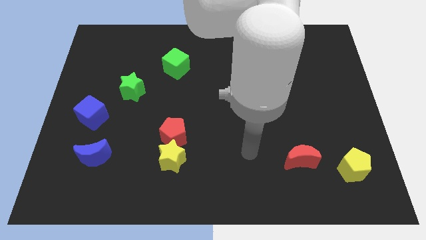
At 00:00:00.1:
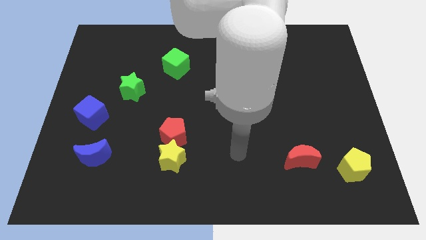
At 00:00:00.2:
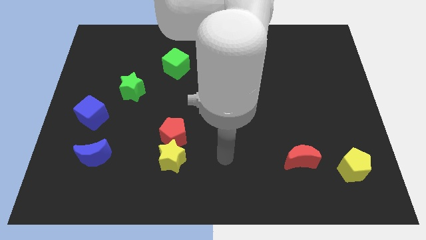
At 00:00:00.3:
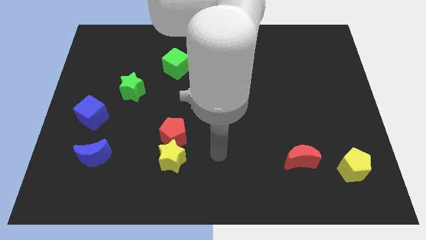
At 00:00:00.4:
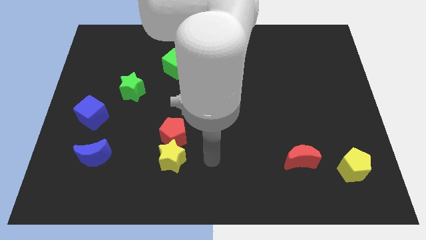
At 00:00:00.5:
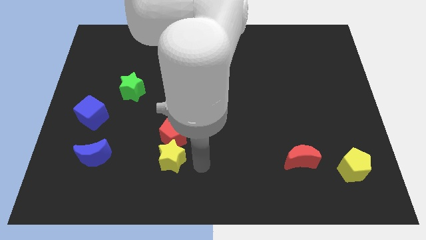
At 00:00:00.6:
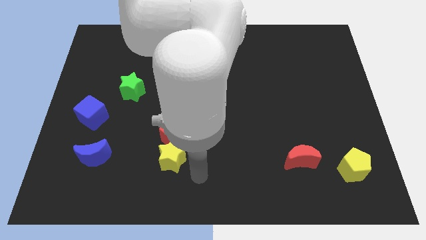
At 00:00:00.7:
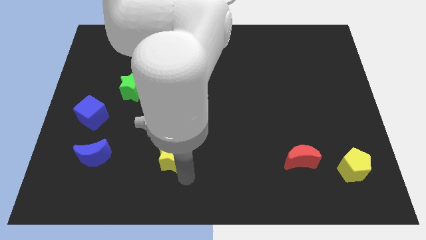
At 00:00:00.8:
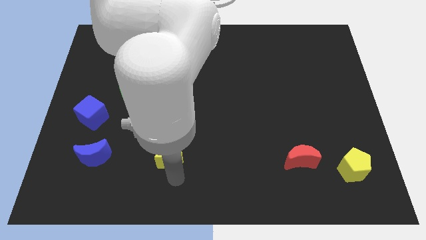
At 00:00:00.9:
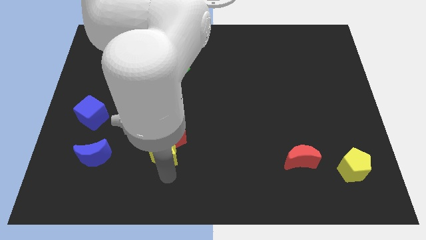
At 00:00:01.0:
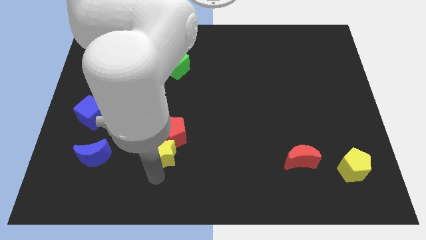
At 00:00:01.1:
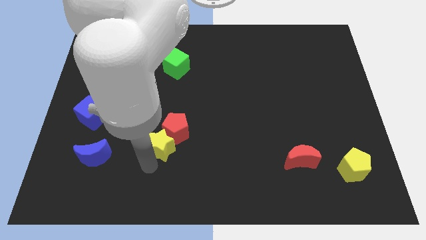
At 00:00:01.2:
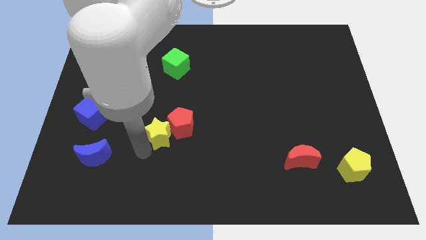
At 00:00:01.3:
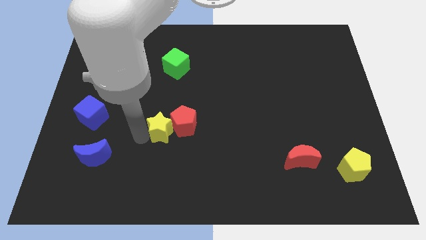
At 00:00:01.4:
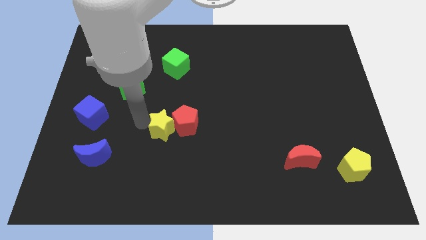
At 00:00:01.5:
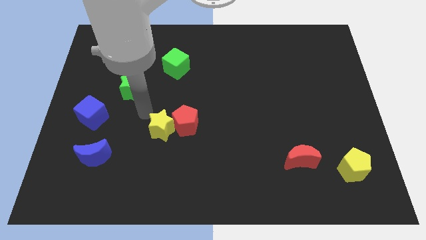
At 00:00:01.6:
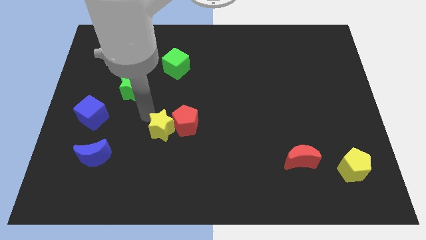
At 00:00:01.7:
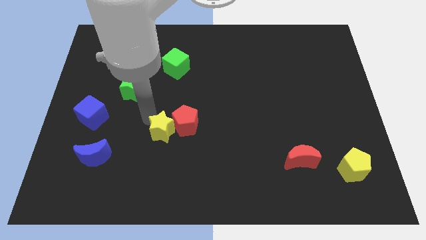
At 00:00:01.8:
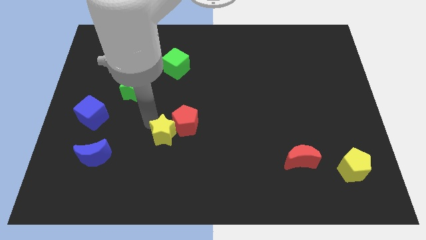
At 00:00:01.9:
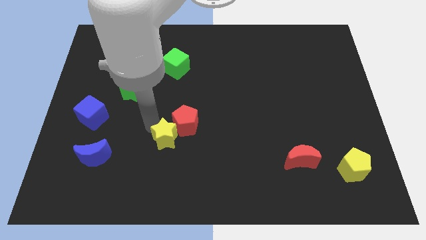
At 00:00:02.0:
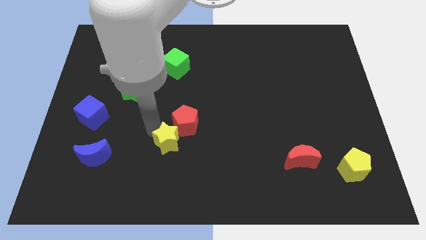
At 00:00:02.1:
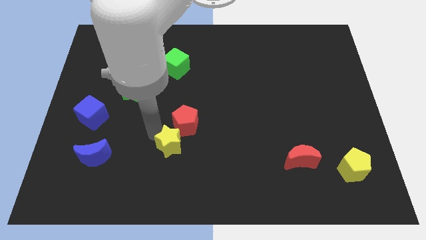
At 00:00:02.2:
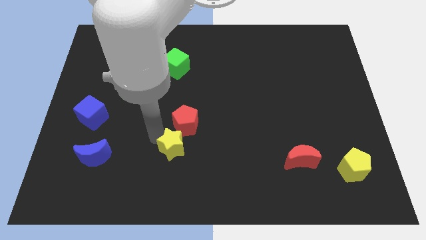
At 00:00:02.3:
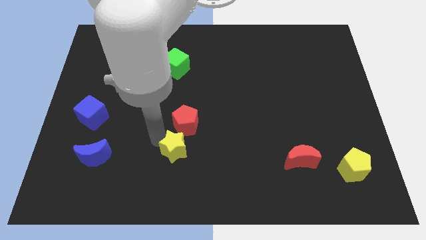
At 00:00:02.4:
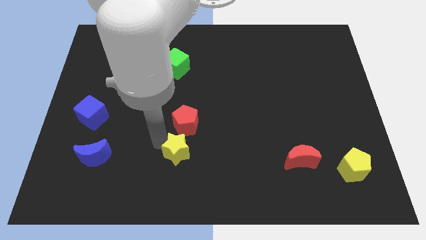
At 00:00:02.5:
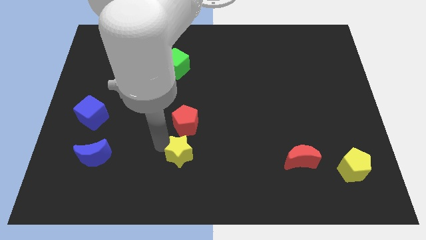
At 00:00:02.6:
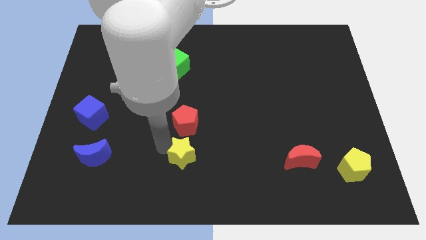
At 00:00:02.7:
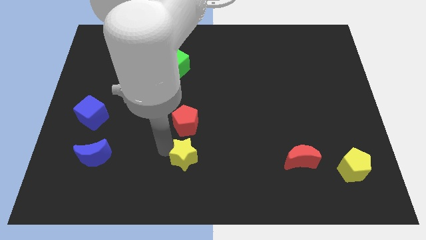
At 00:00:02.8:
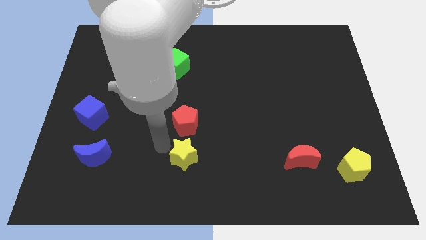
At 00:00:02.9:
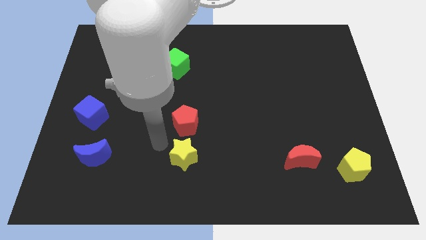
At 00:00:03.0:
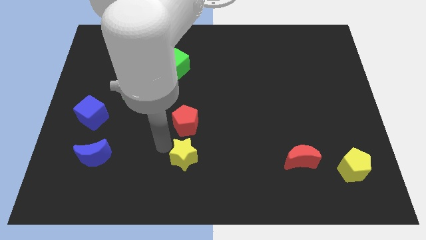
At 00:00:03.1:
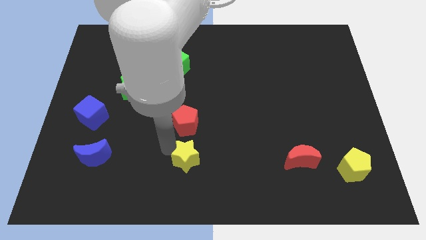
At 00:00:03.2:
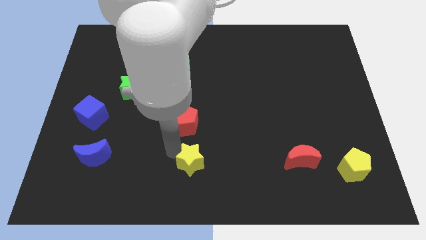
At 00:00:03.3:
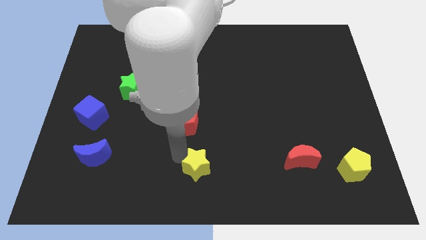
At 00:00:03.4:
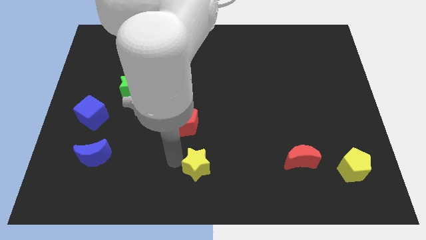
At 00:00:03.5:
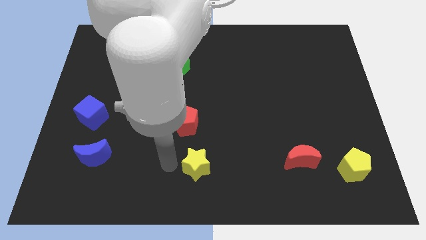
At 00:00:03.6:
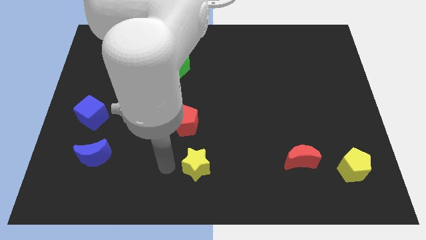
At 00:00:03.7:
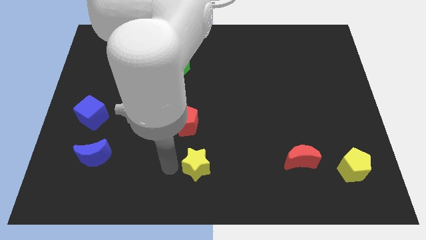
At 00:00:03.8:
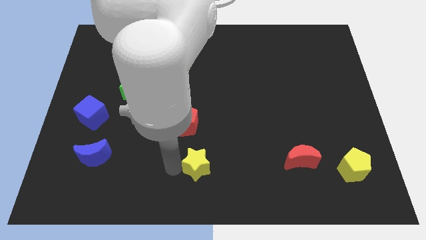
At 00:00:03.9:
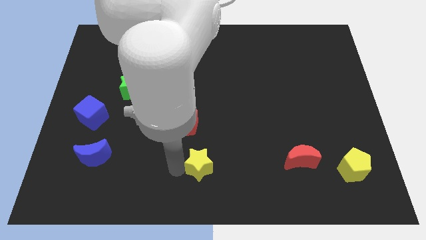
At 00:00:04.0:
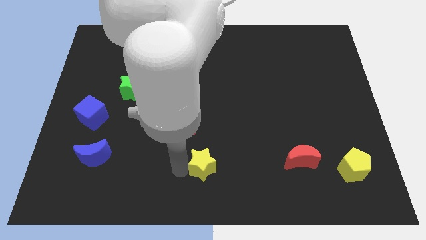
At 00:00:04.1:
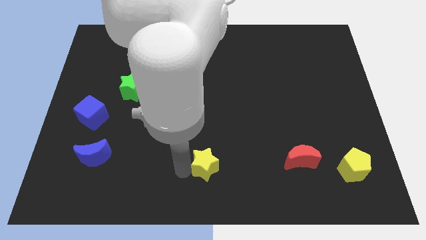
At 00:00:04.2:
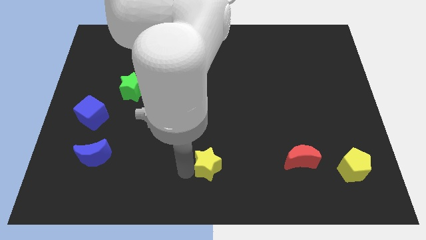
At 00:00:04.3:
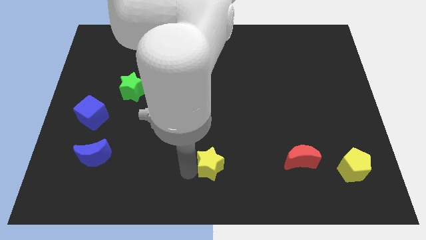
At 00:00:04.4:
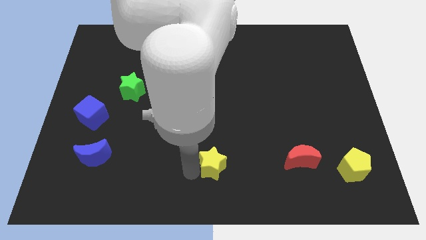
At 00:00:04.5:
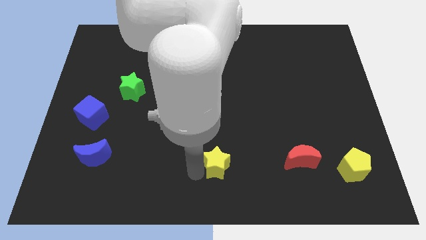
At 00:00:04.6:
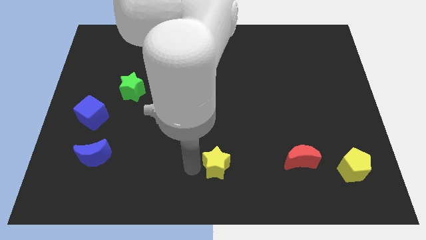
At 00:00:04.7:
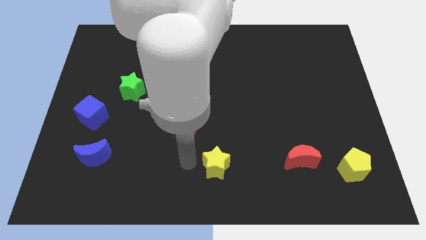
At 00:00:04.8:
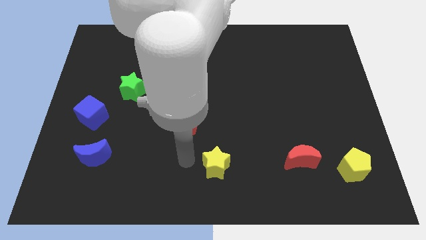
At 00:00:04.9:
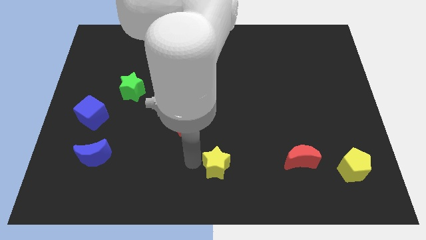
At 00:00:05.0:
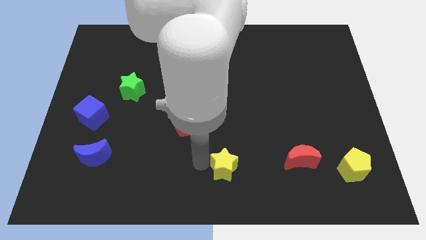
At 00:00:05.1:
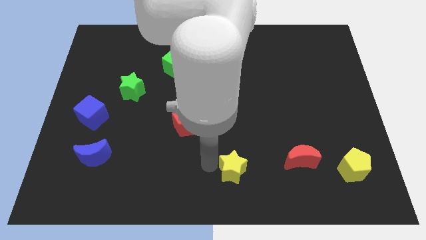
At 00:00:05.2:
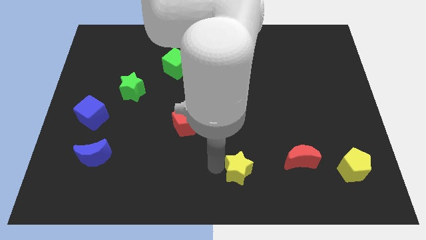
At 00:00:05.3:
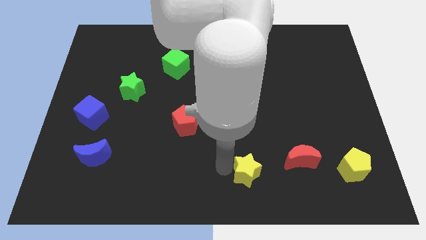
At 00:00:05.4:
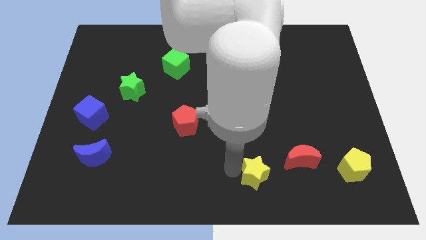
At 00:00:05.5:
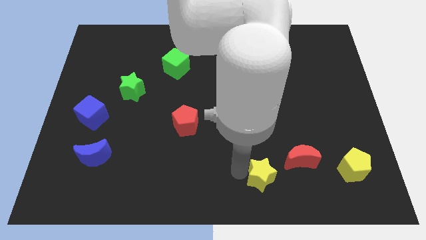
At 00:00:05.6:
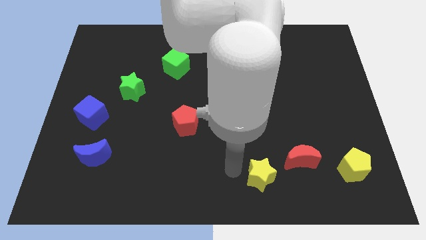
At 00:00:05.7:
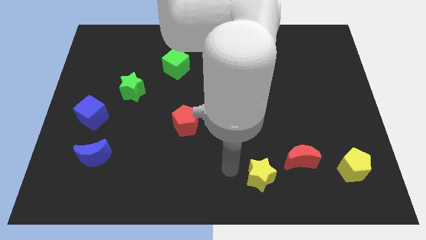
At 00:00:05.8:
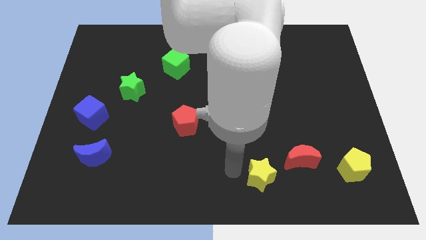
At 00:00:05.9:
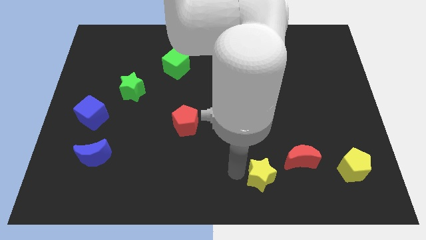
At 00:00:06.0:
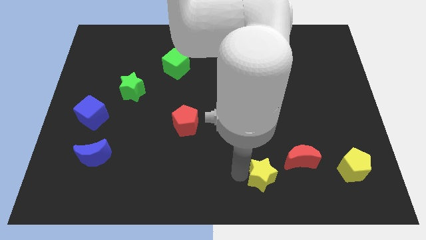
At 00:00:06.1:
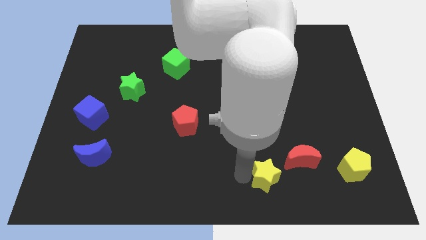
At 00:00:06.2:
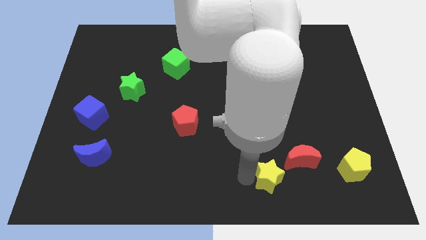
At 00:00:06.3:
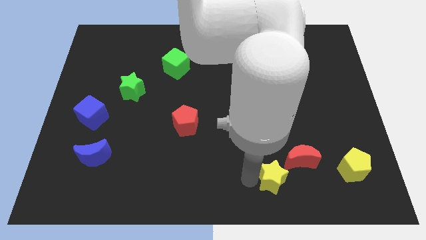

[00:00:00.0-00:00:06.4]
move the yellow star to the right

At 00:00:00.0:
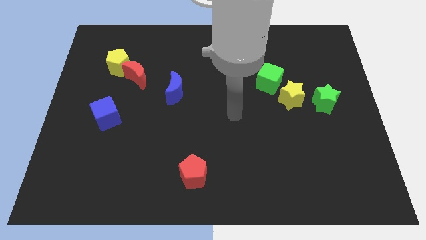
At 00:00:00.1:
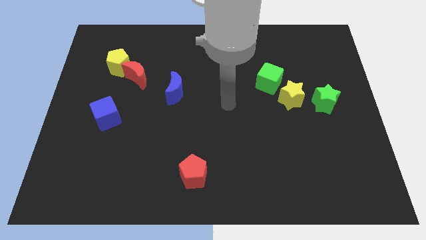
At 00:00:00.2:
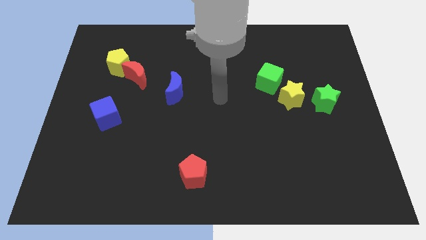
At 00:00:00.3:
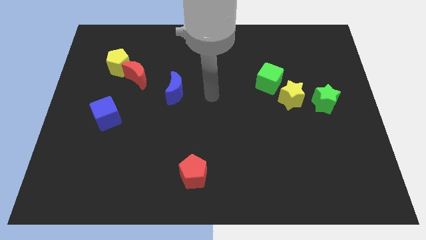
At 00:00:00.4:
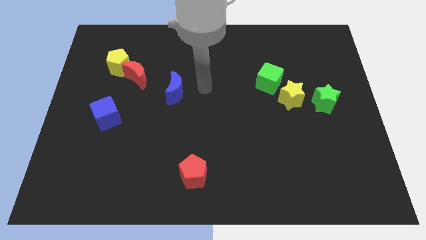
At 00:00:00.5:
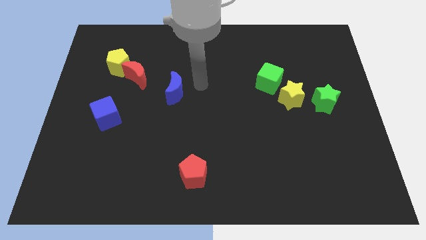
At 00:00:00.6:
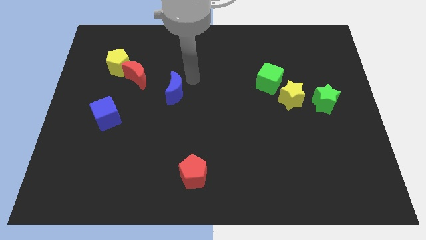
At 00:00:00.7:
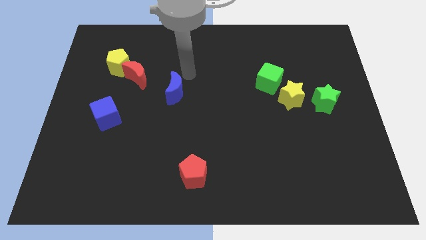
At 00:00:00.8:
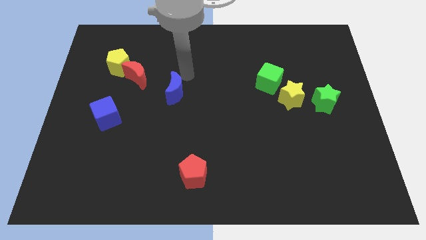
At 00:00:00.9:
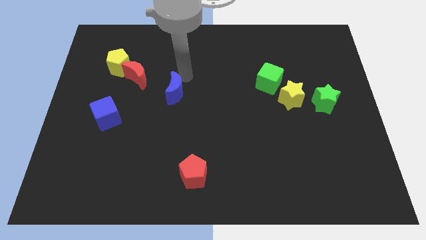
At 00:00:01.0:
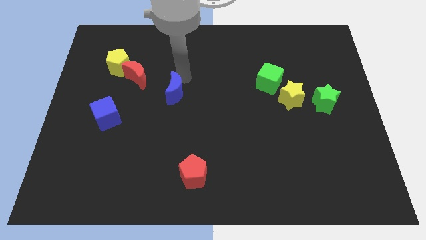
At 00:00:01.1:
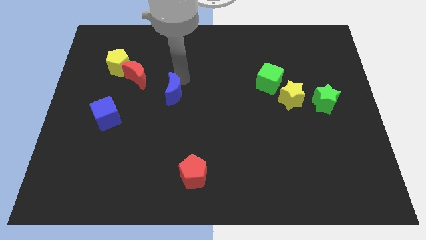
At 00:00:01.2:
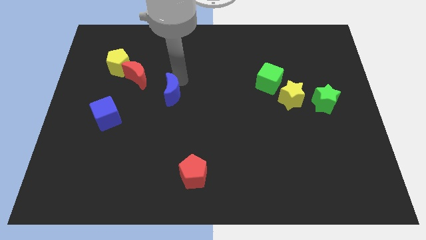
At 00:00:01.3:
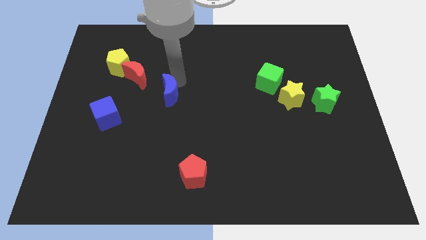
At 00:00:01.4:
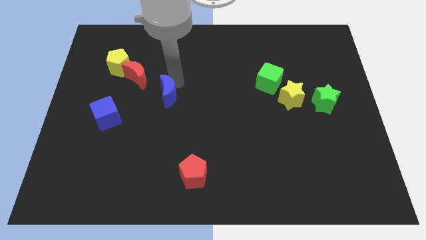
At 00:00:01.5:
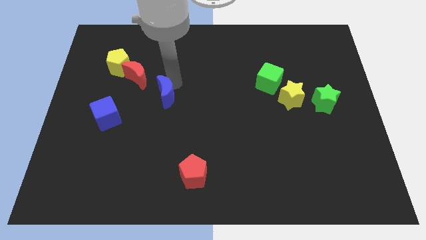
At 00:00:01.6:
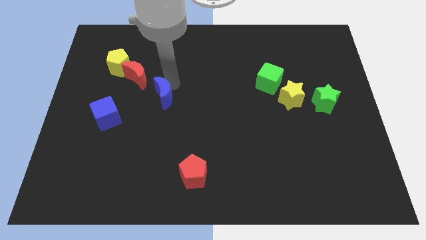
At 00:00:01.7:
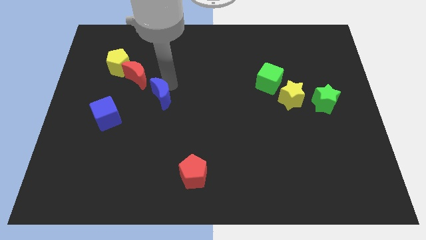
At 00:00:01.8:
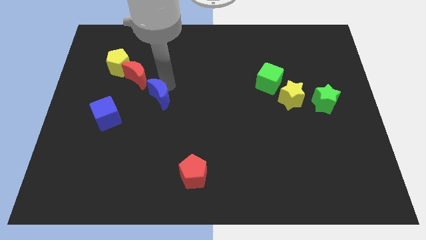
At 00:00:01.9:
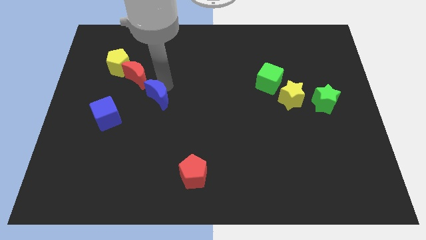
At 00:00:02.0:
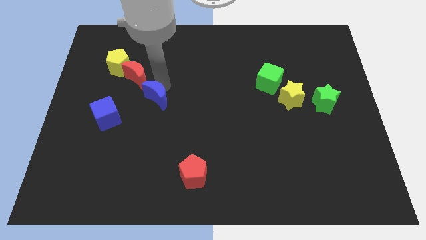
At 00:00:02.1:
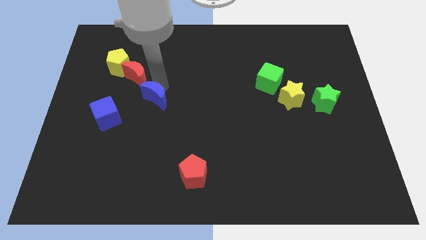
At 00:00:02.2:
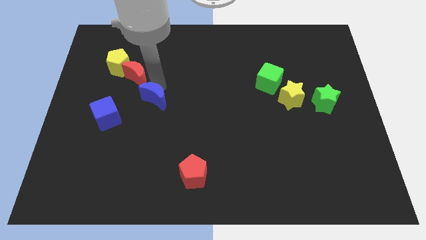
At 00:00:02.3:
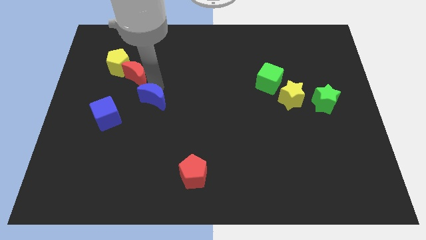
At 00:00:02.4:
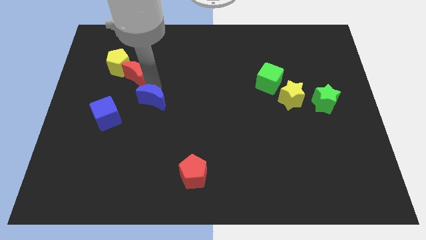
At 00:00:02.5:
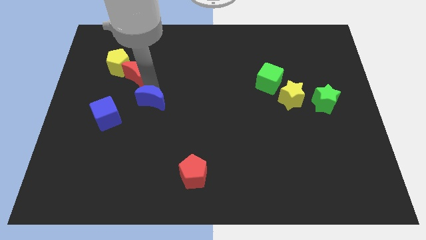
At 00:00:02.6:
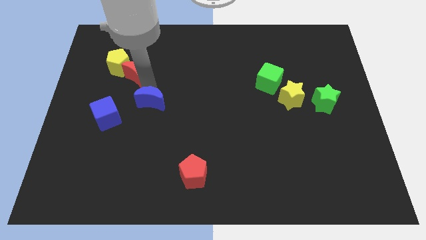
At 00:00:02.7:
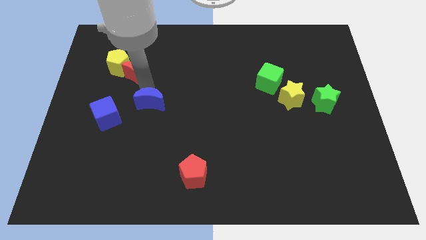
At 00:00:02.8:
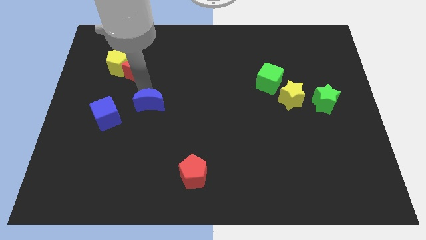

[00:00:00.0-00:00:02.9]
slightly slide the blue moon downwards and to the left diagonally
